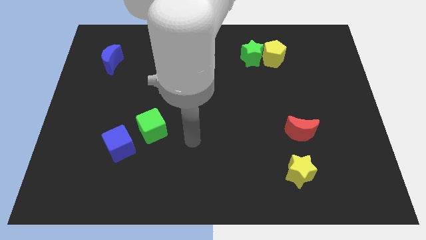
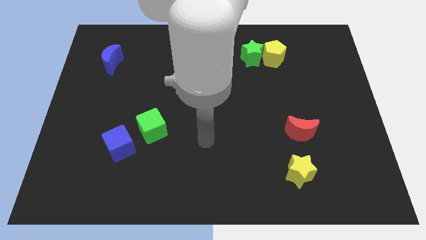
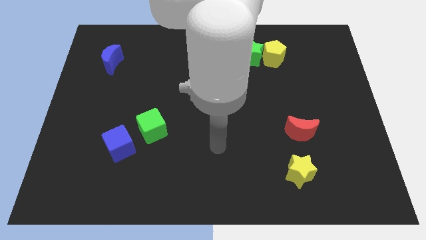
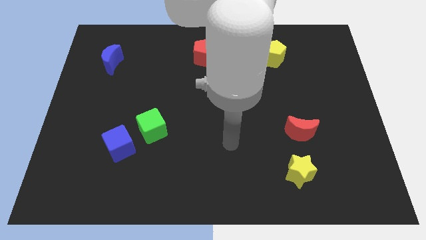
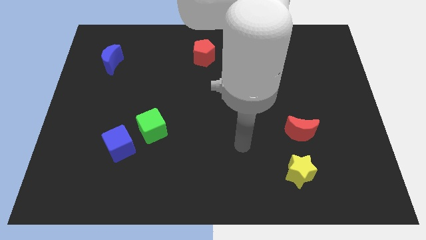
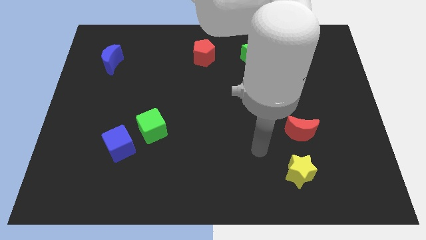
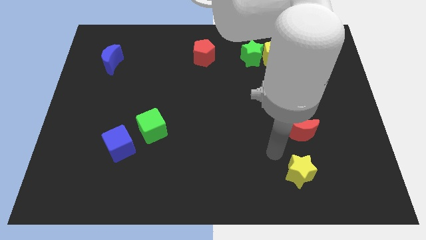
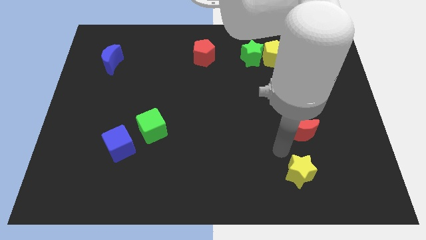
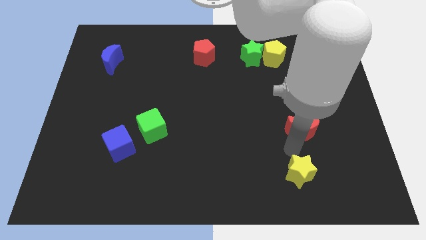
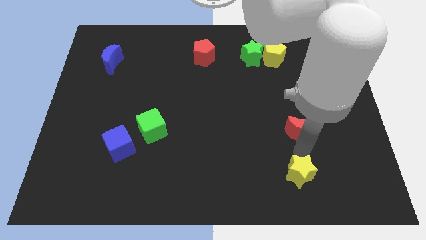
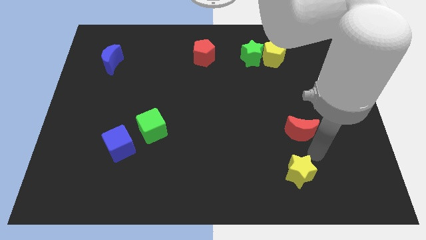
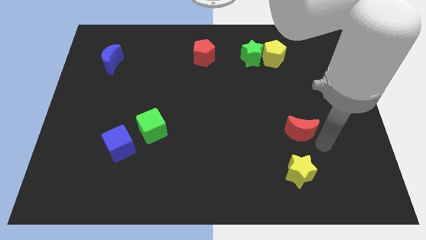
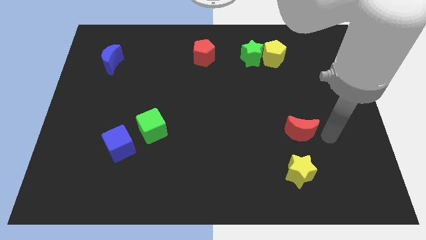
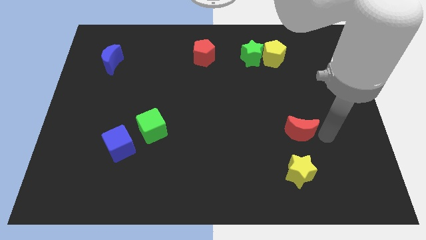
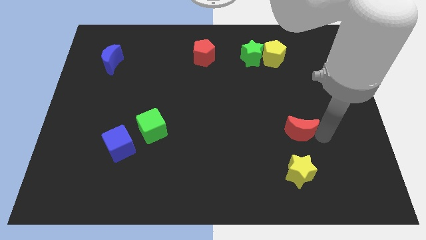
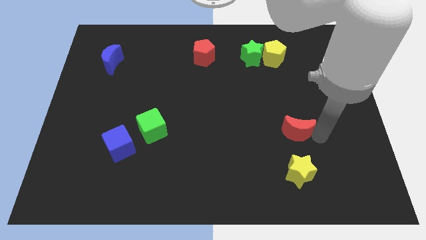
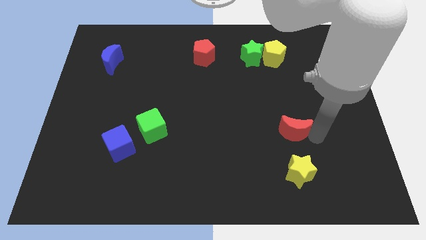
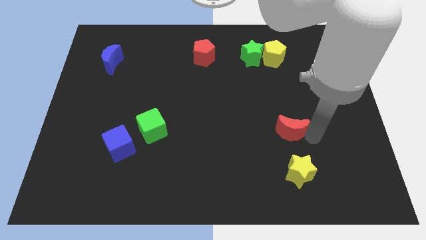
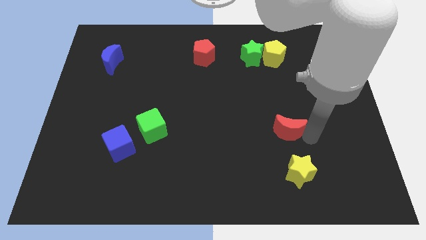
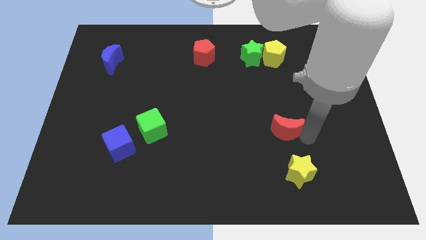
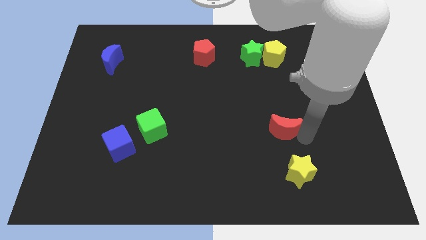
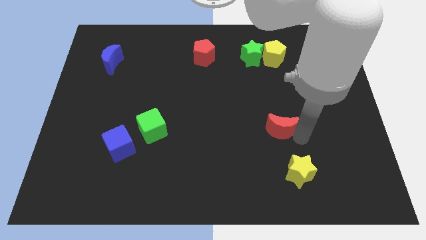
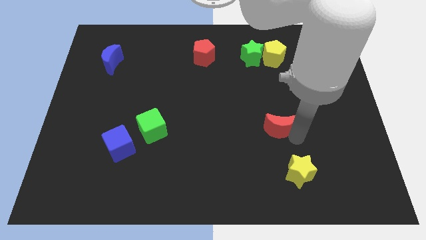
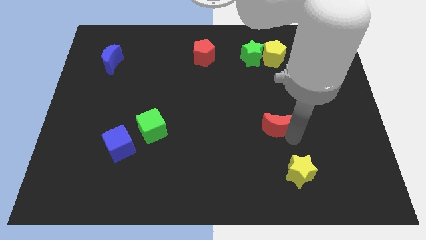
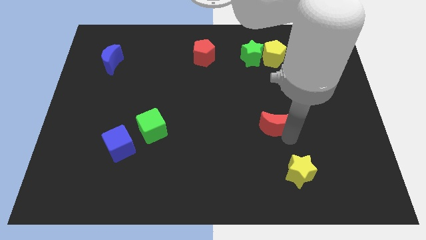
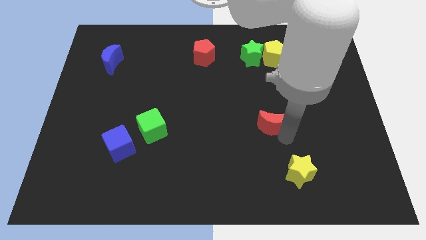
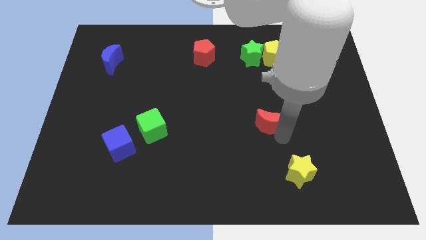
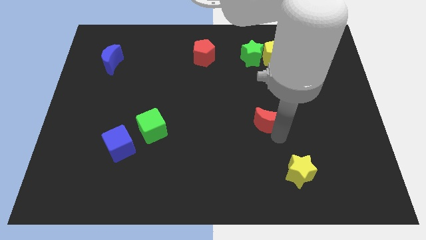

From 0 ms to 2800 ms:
slide the red moon to the left a little

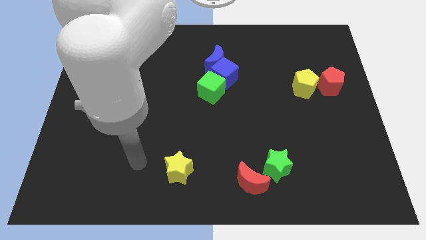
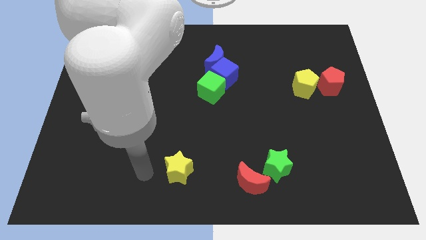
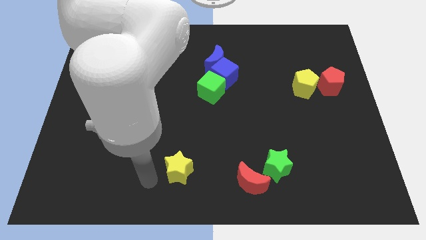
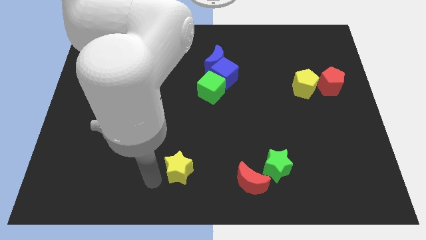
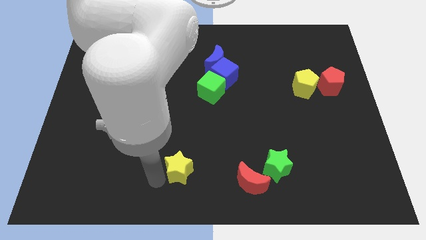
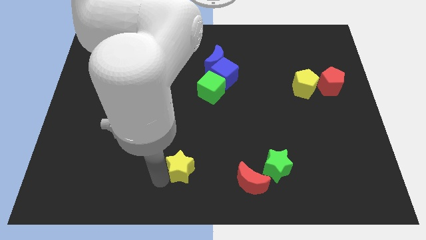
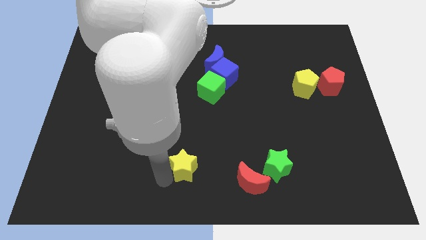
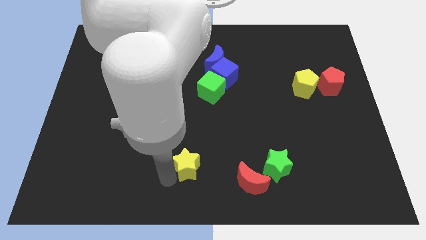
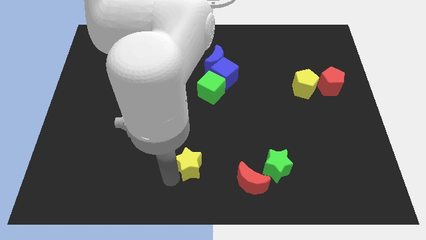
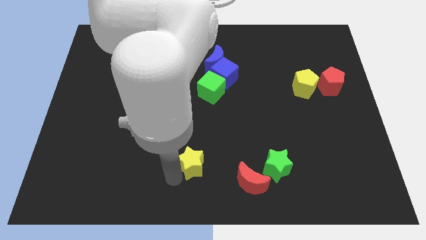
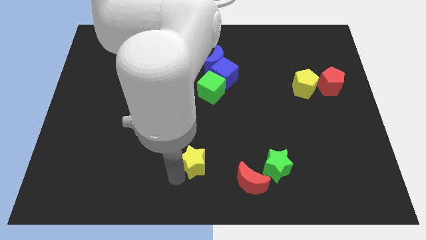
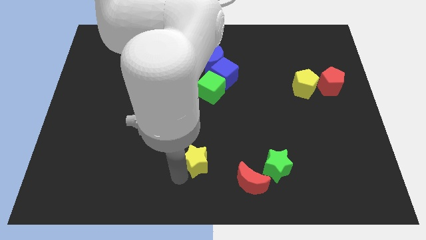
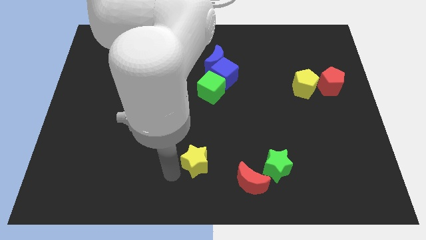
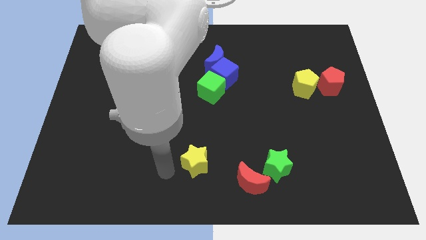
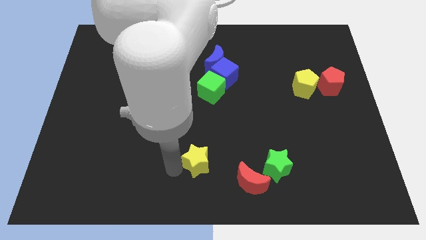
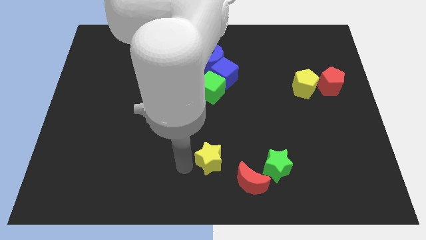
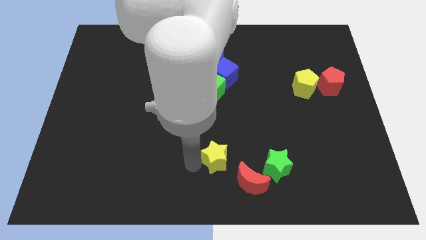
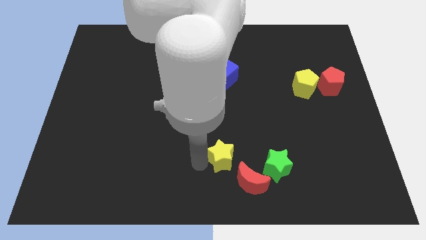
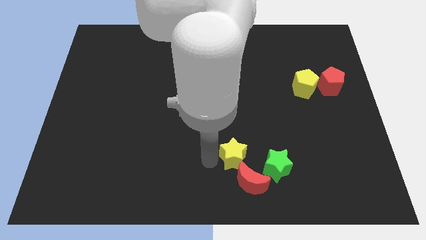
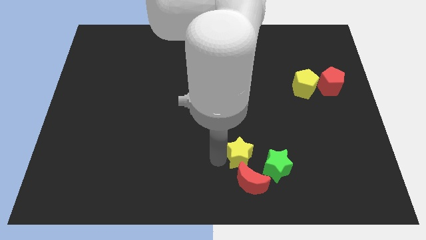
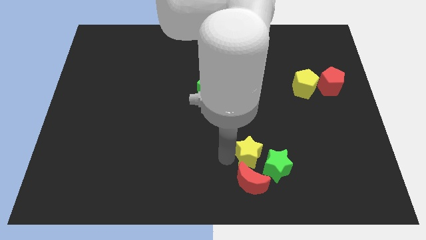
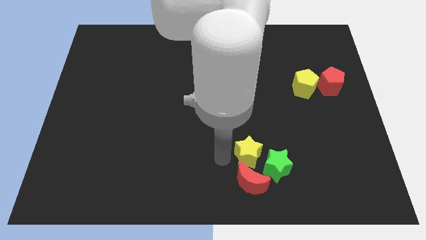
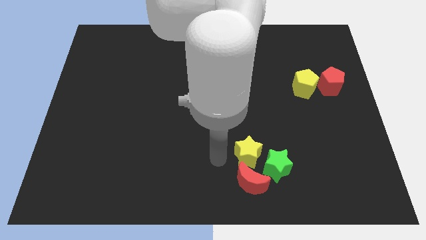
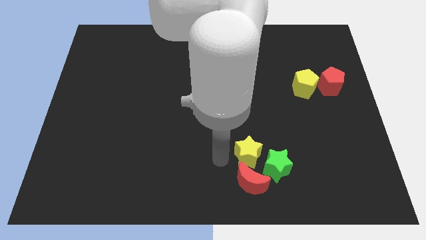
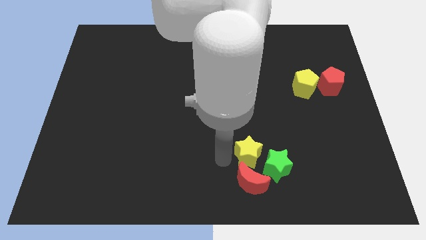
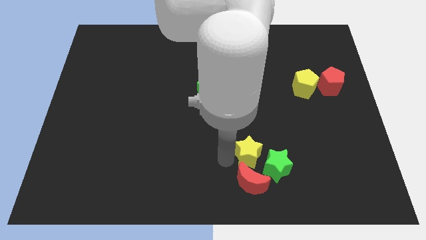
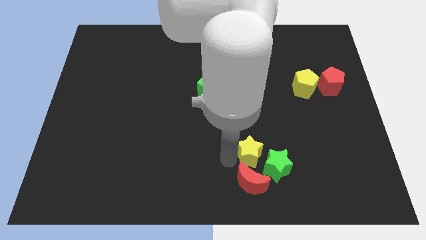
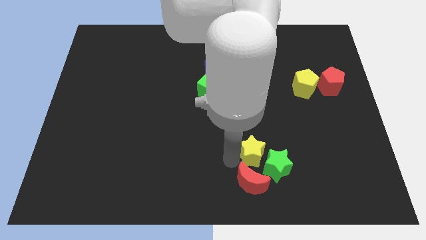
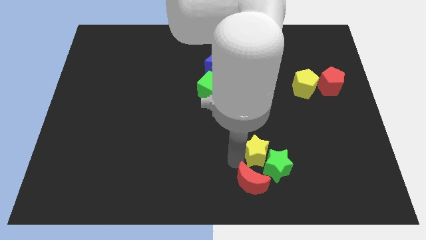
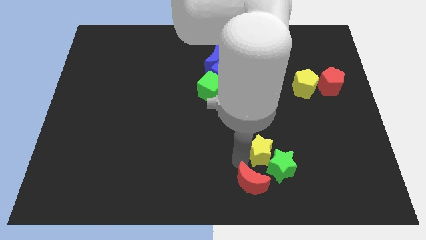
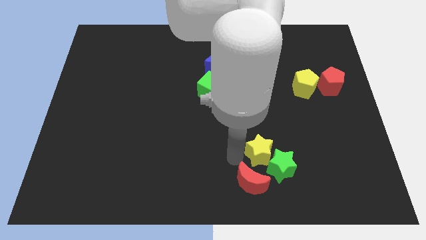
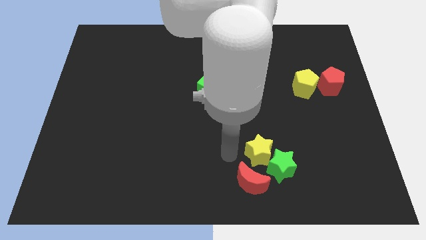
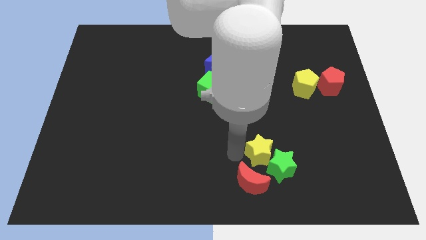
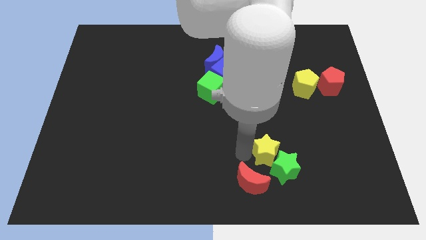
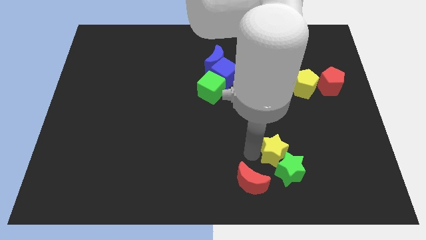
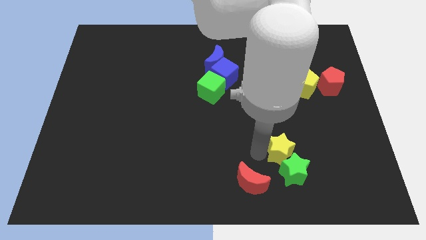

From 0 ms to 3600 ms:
push the yellow star to the right

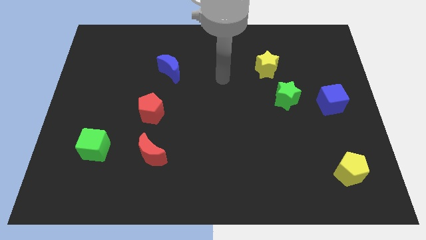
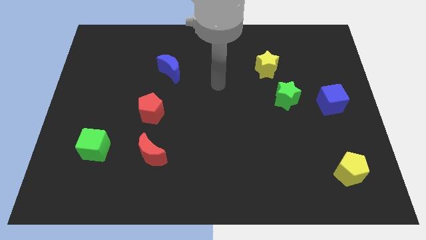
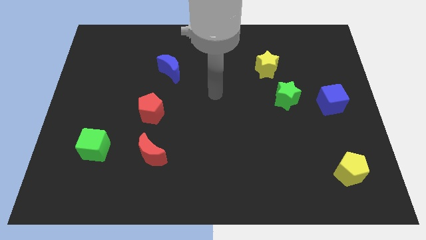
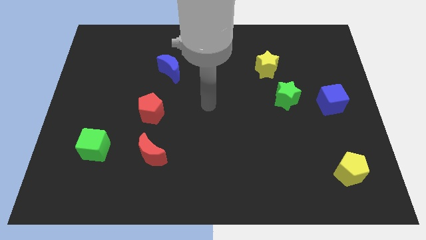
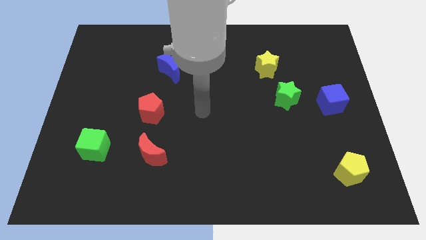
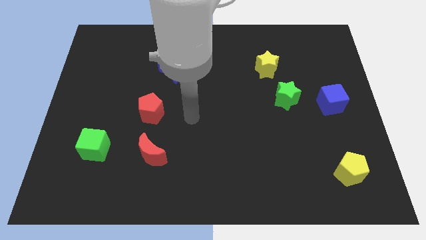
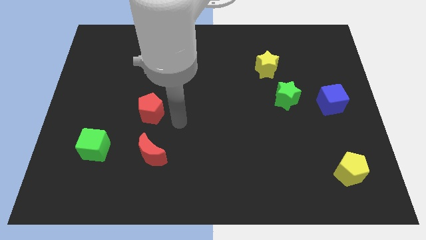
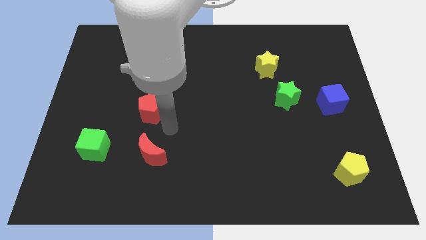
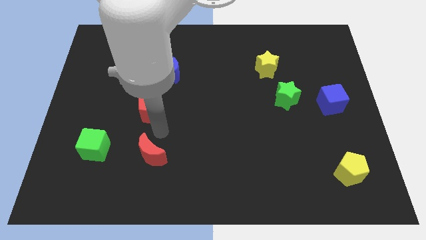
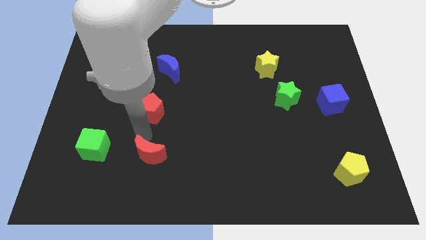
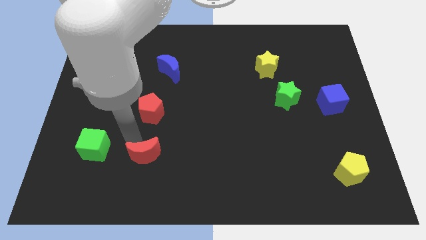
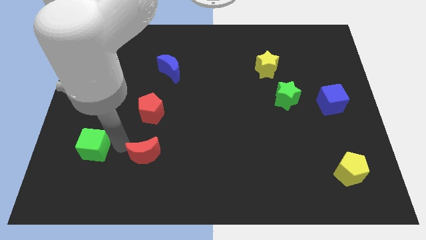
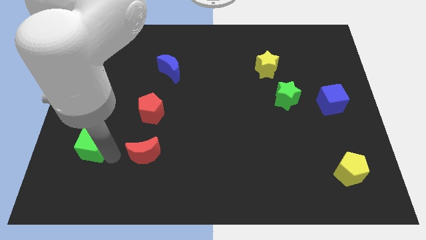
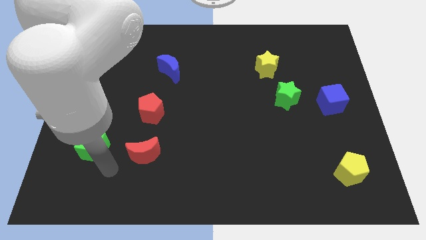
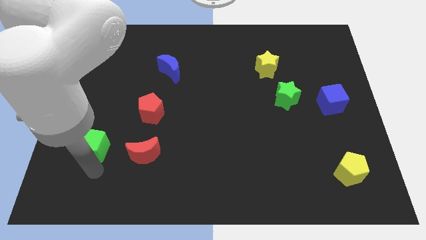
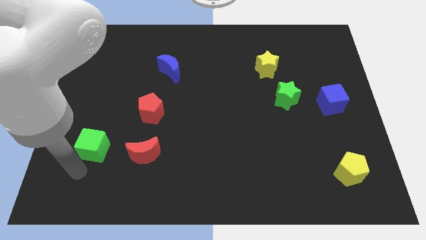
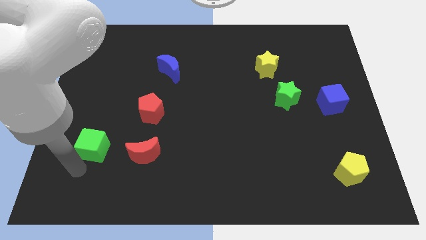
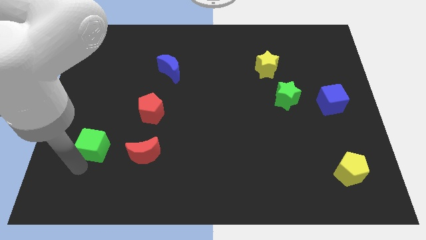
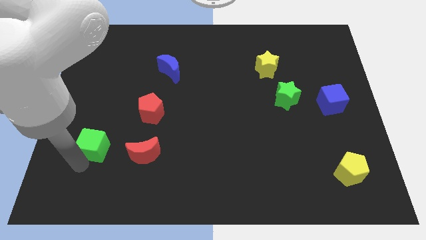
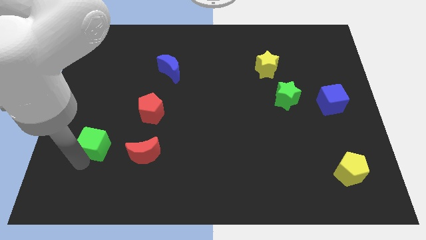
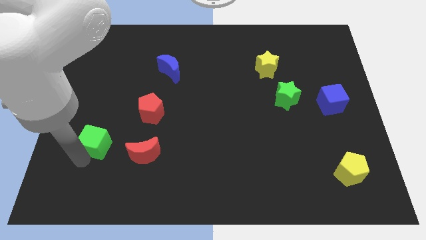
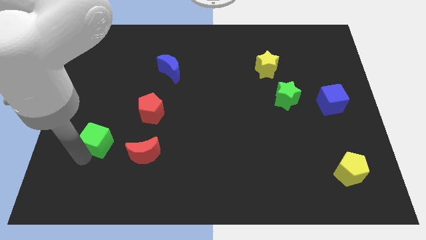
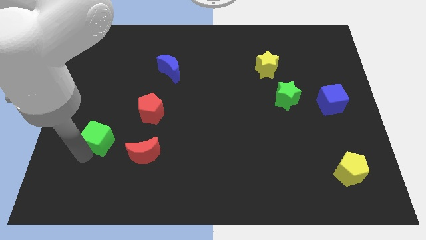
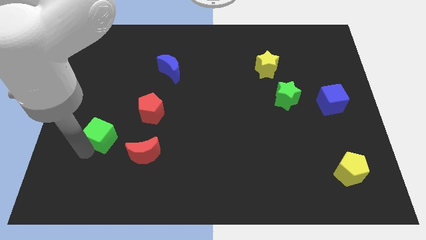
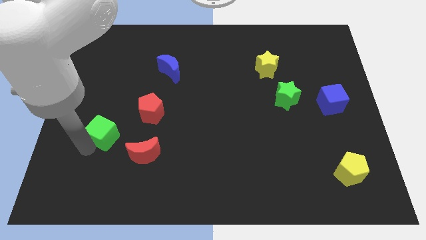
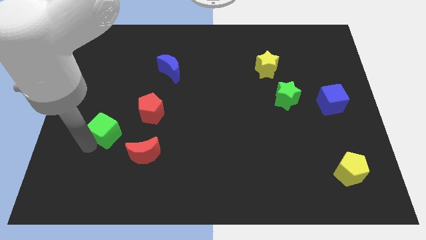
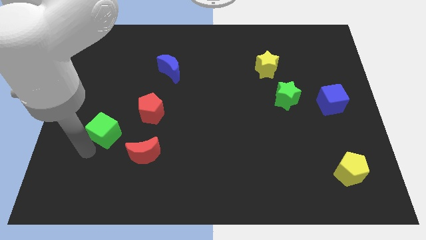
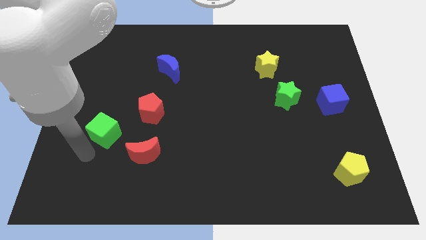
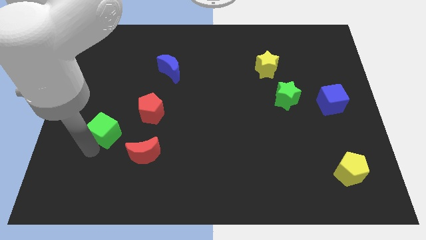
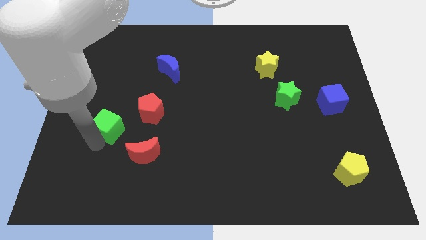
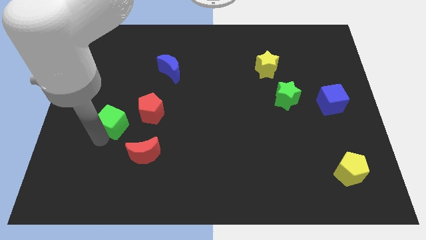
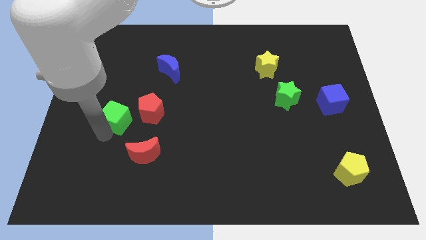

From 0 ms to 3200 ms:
slightly push the green cube up and right
